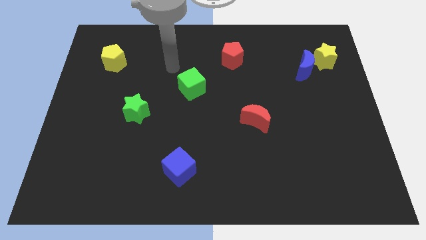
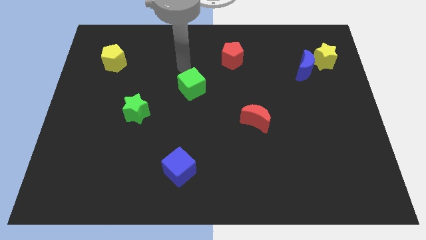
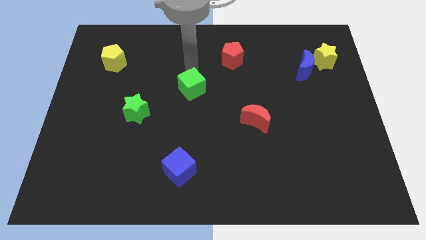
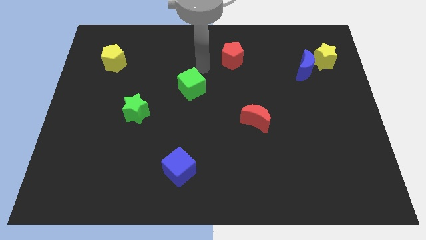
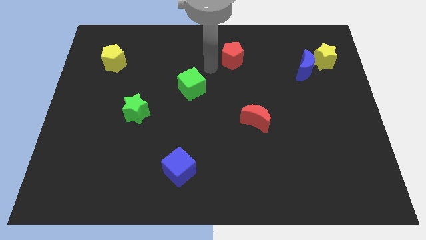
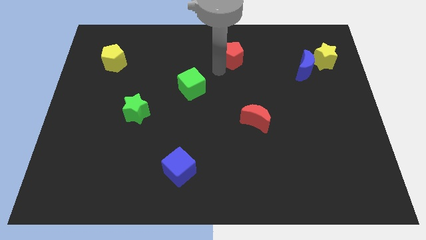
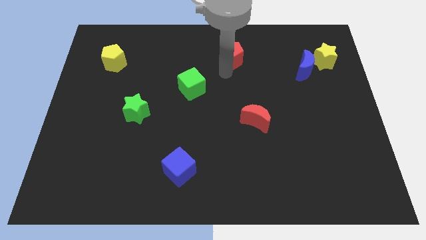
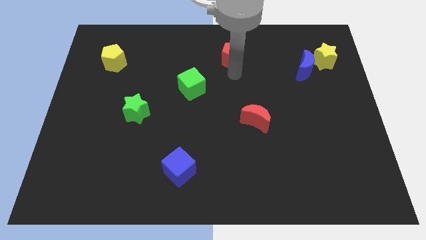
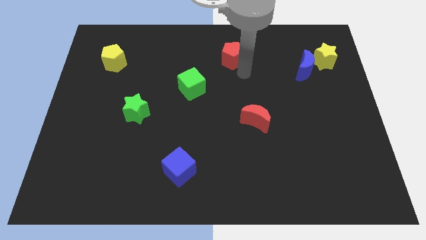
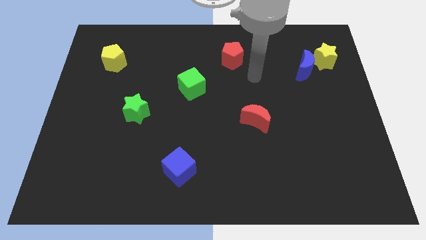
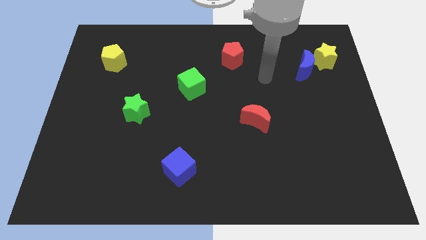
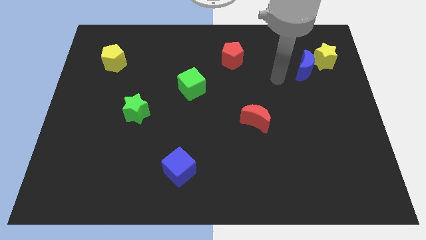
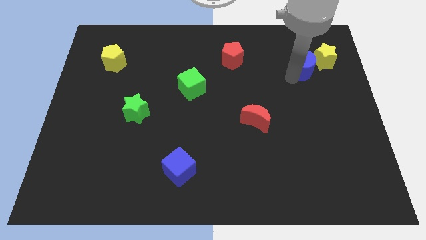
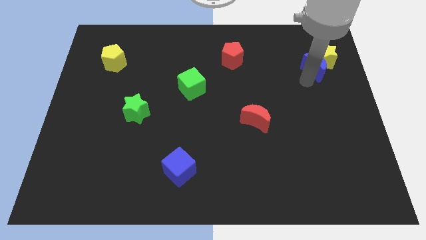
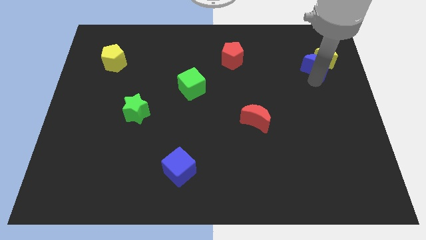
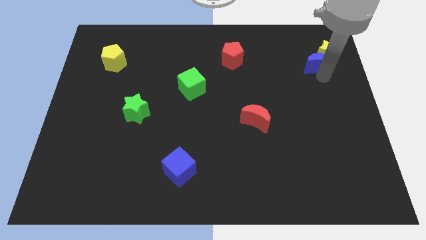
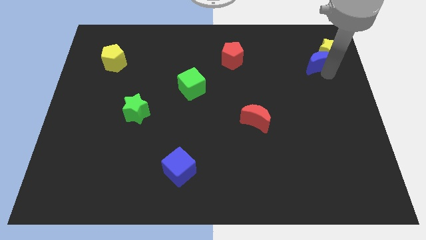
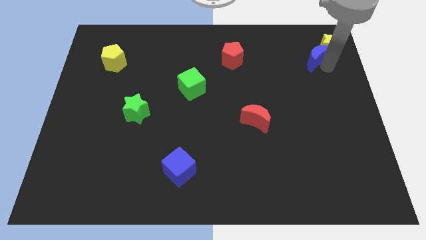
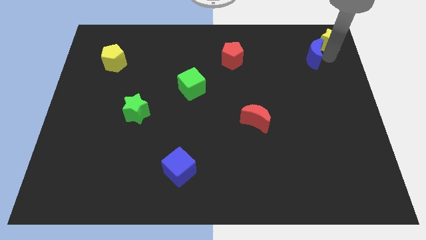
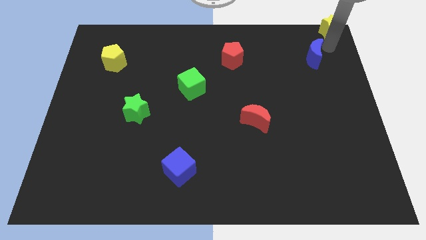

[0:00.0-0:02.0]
pull the blue moon apart from the yellow star

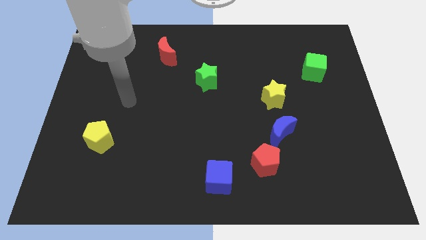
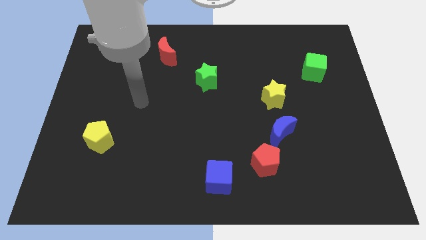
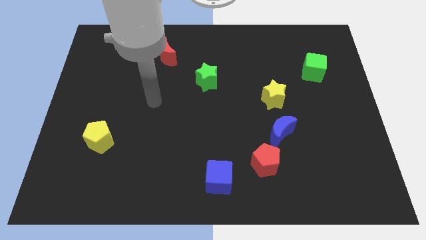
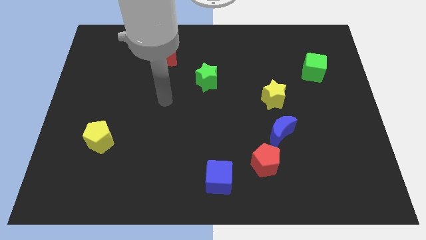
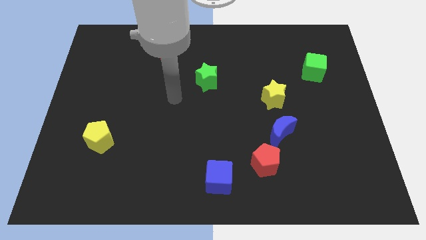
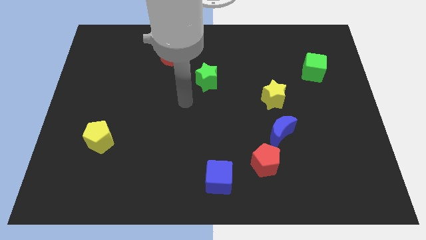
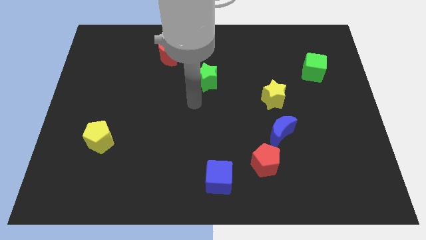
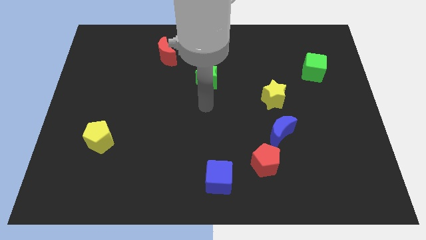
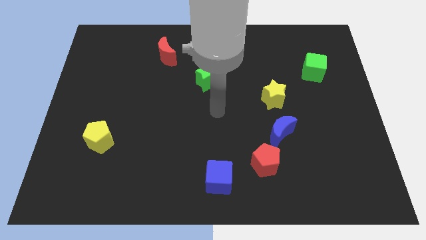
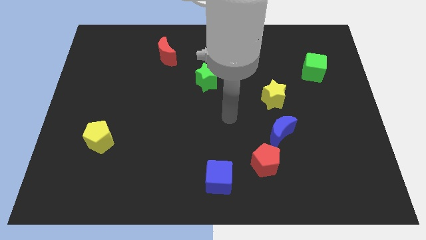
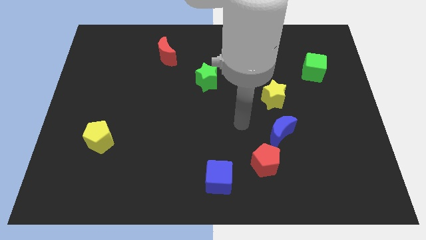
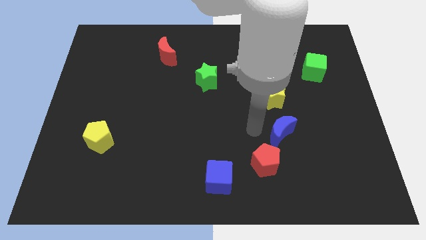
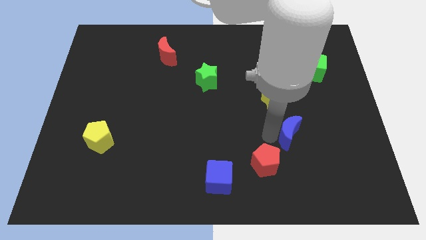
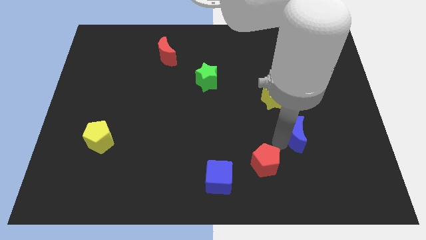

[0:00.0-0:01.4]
pull the red pentagon apart from the blue moon

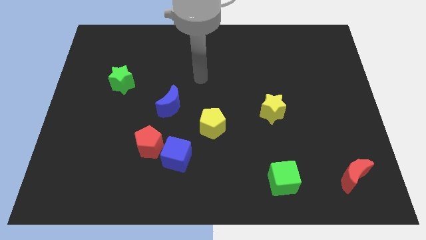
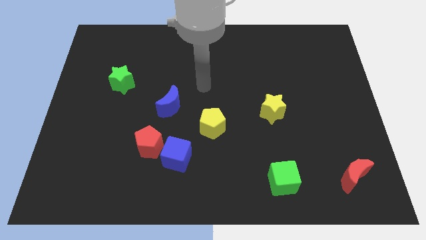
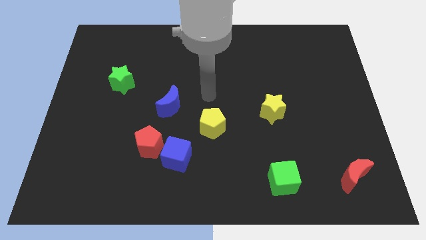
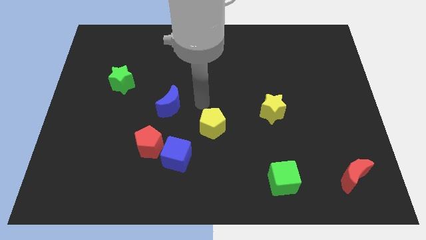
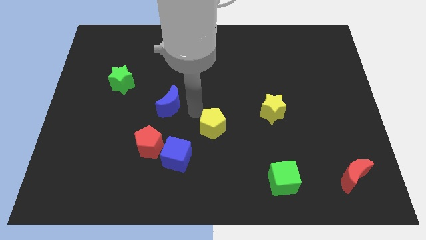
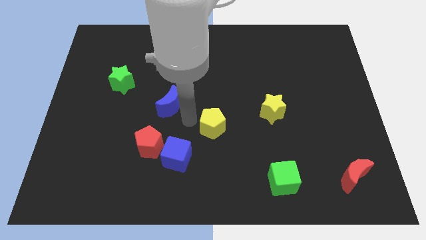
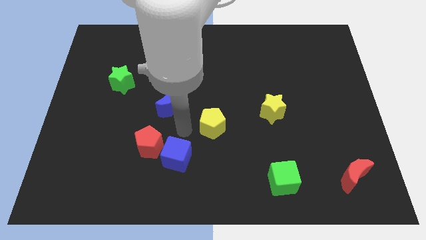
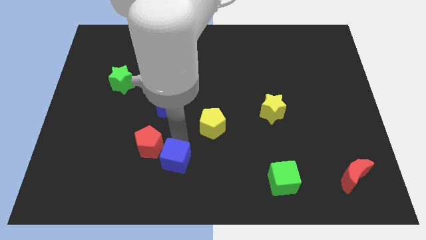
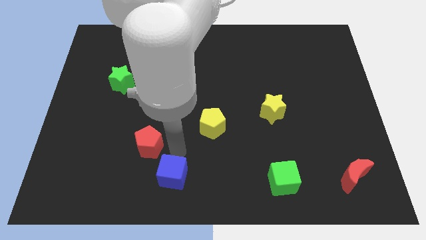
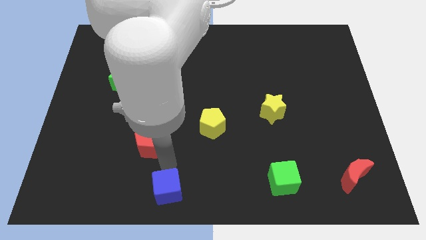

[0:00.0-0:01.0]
separate the red pentagon from the blue cube

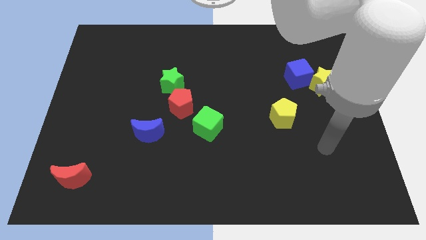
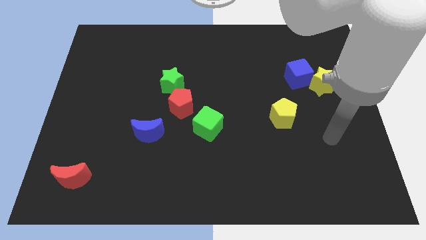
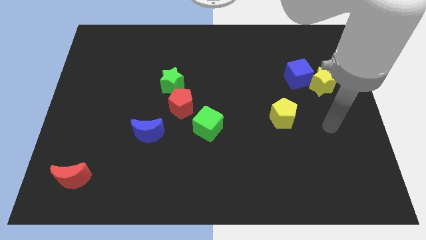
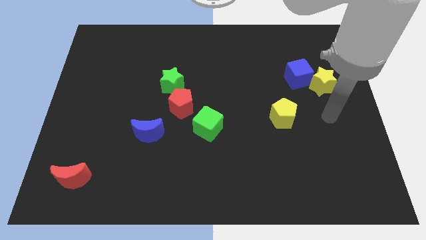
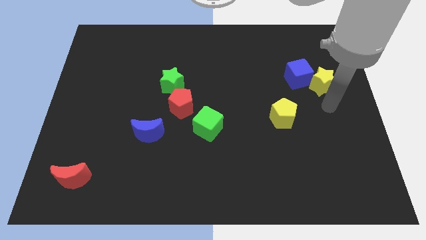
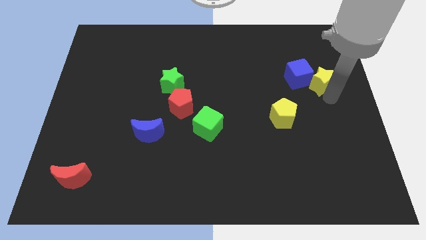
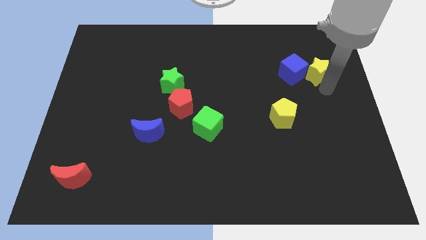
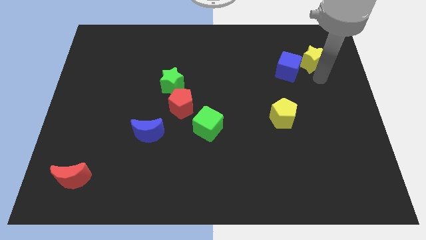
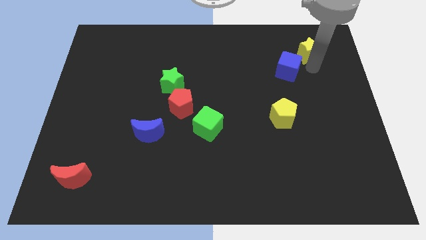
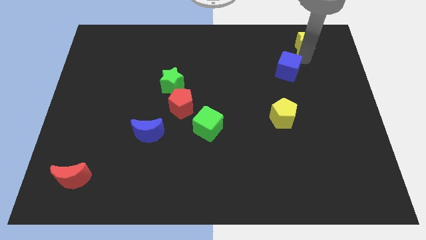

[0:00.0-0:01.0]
move the blue cube away from the yellow star

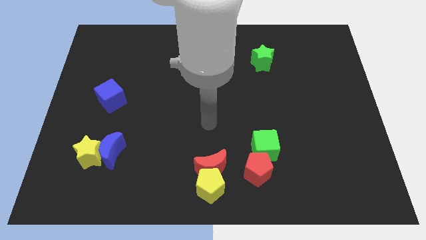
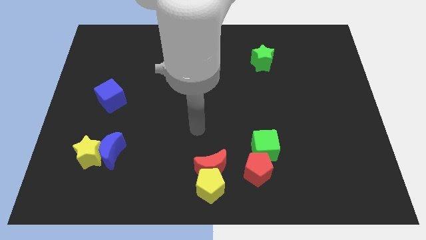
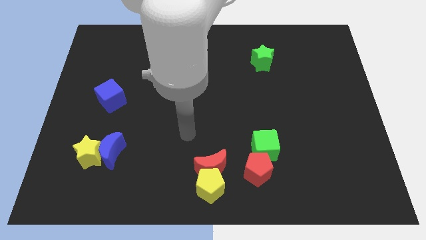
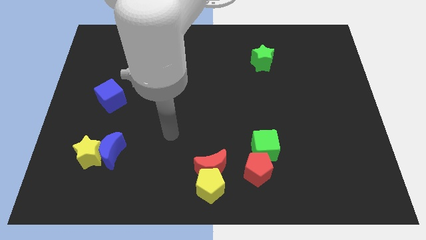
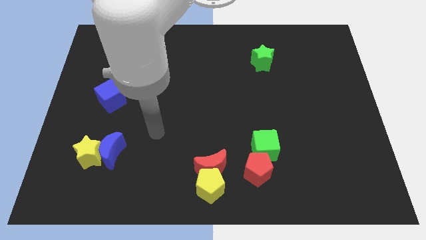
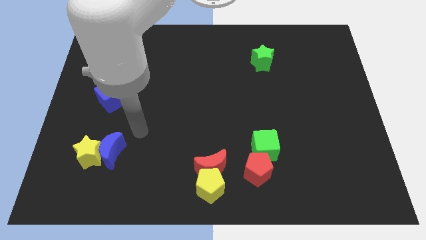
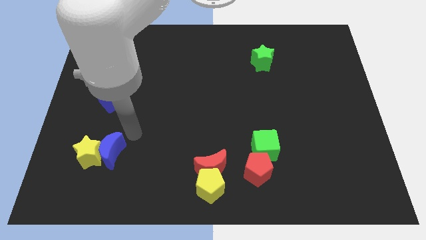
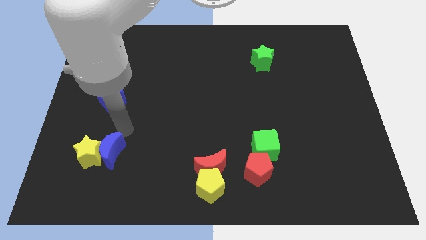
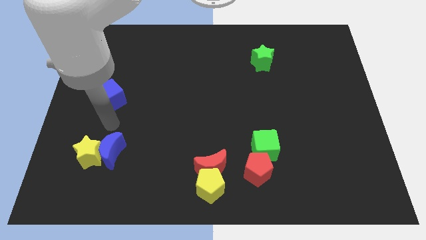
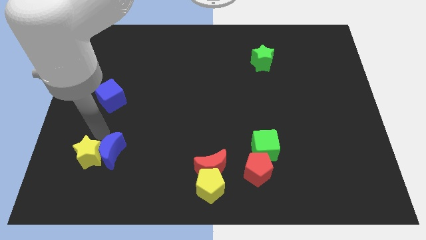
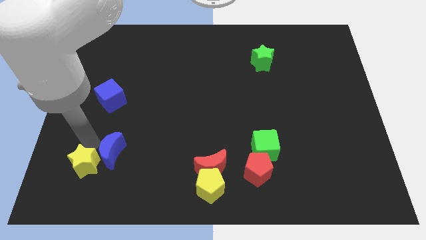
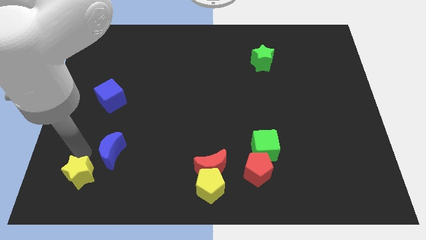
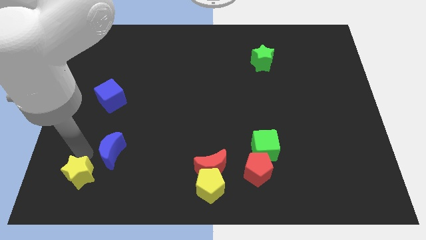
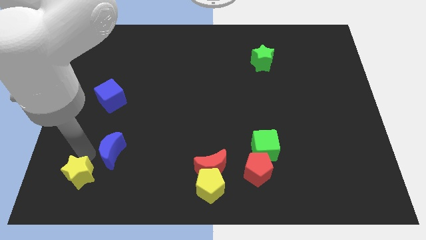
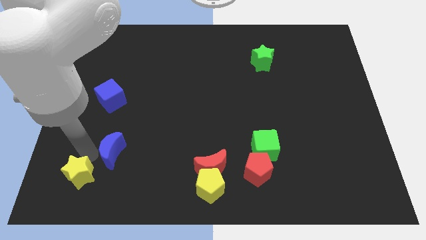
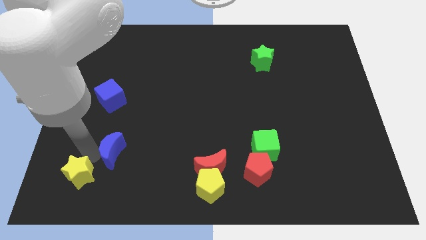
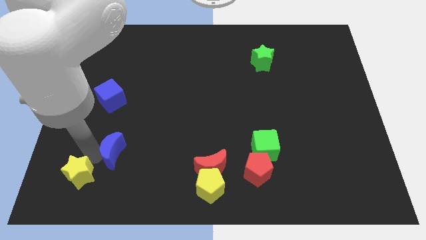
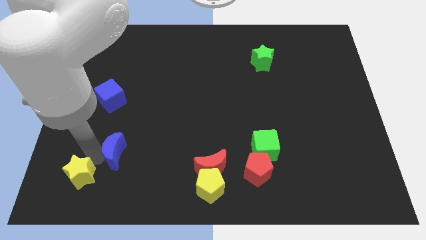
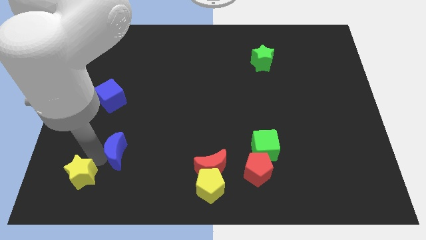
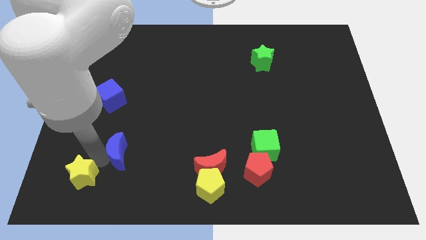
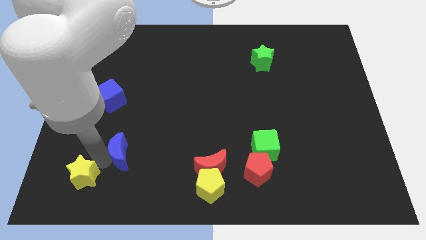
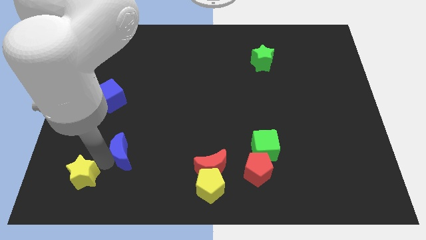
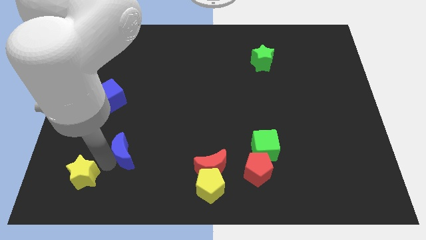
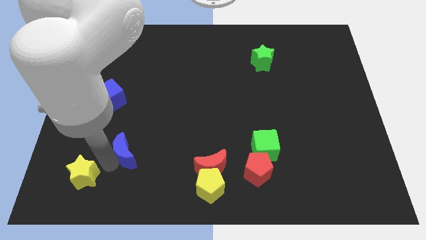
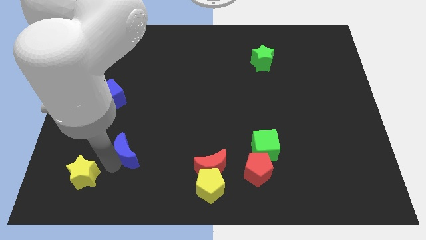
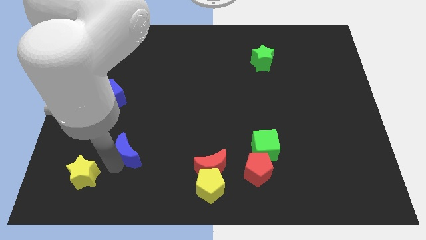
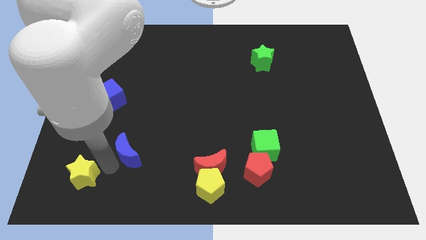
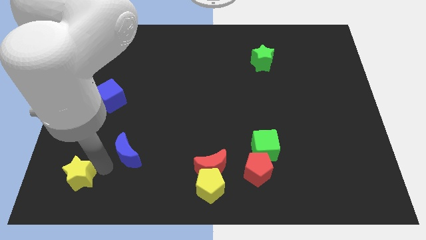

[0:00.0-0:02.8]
move the blue moon away from the yellow star

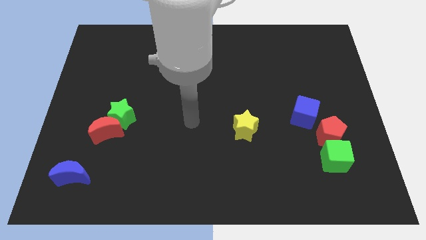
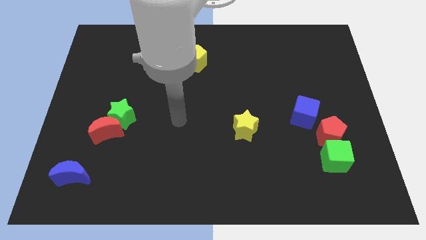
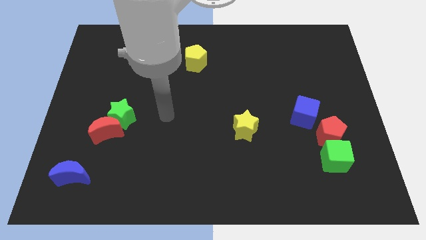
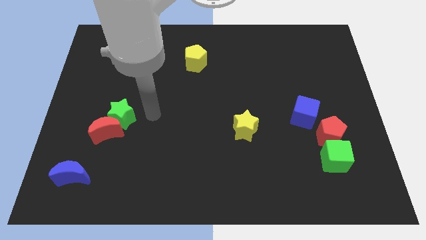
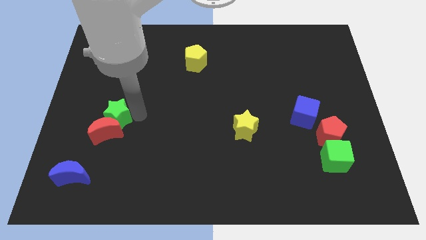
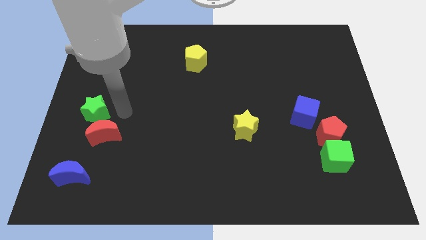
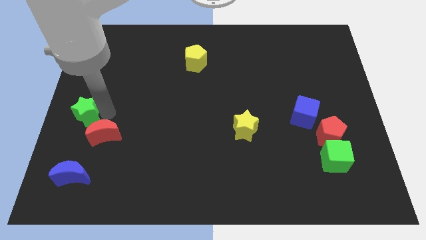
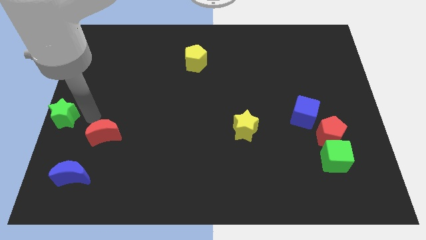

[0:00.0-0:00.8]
pull the red moon apart from the green star

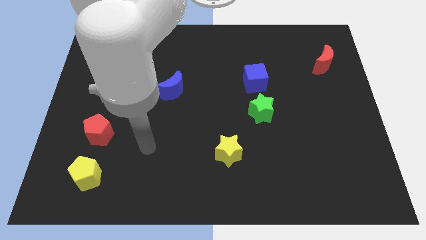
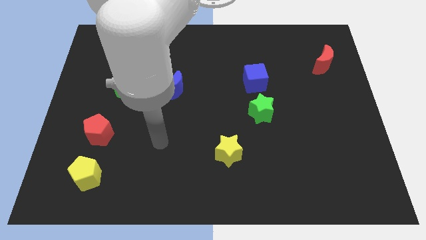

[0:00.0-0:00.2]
separate the blue cube from the green star
